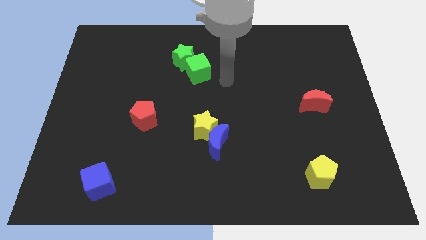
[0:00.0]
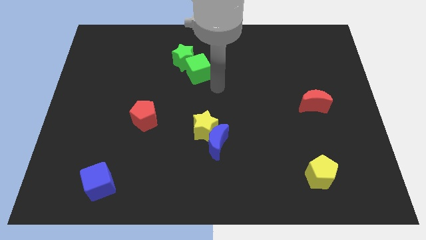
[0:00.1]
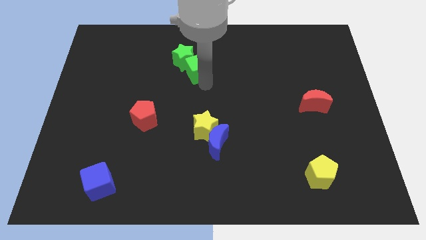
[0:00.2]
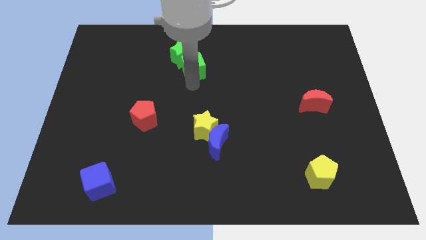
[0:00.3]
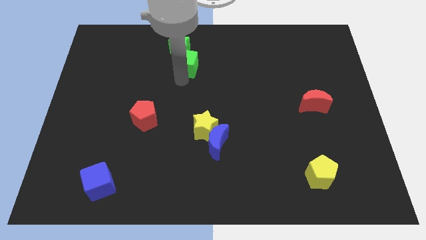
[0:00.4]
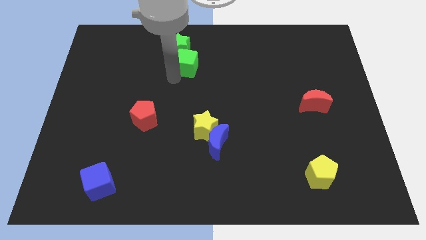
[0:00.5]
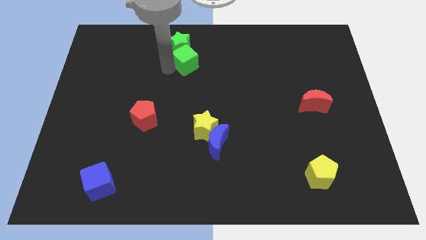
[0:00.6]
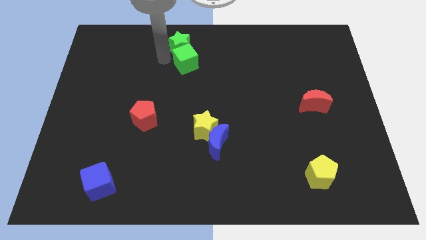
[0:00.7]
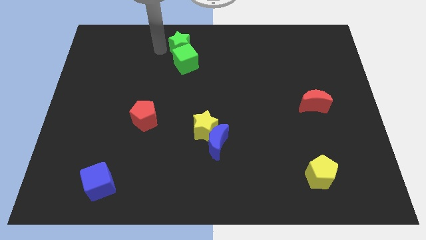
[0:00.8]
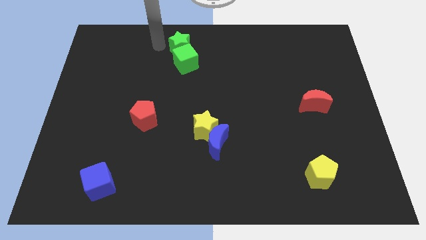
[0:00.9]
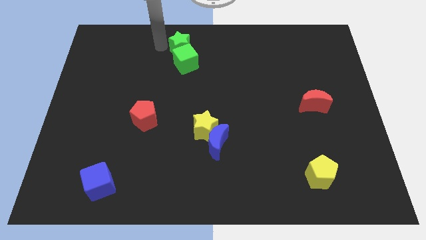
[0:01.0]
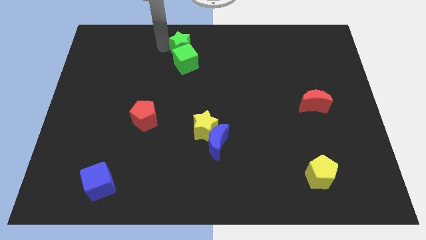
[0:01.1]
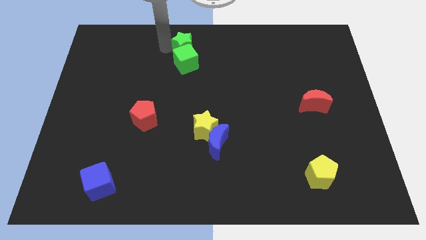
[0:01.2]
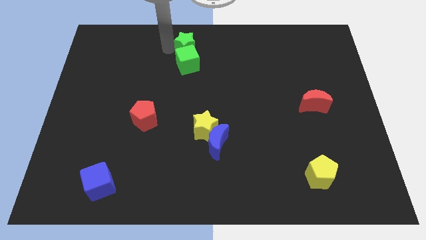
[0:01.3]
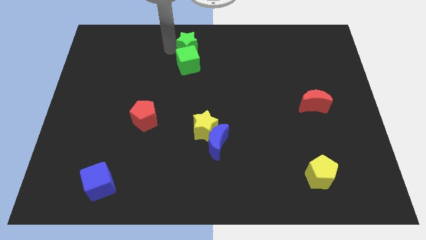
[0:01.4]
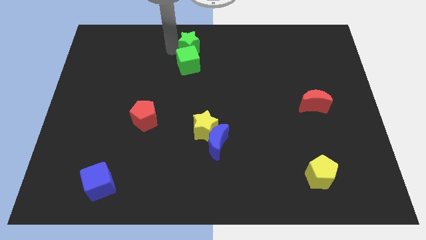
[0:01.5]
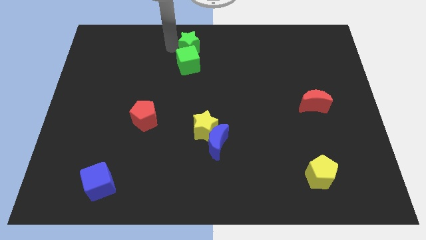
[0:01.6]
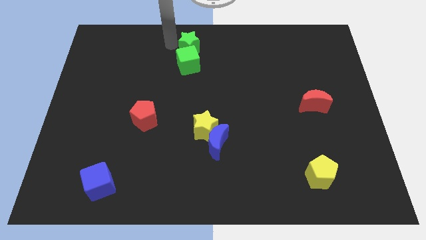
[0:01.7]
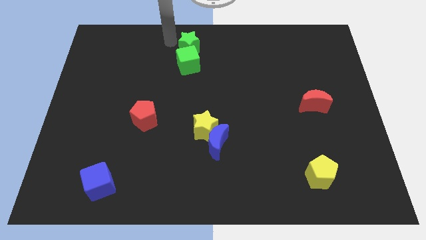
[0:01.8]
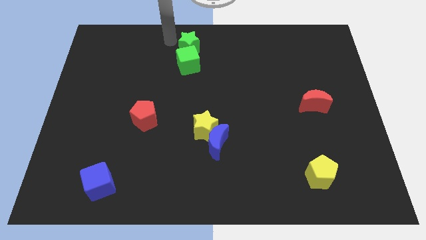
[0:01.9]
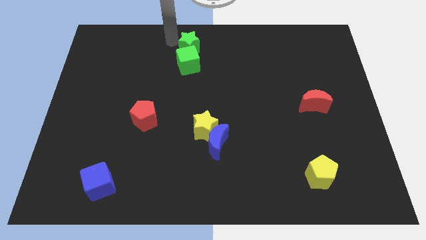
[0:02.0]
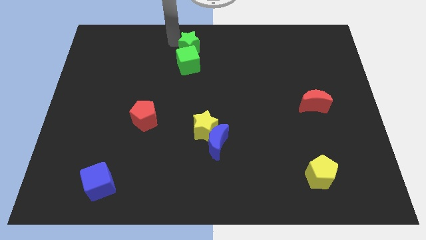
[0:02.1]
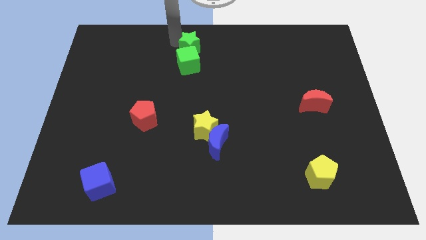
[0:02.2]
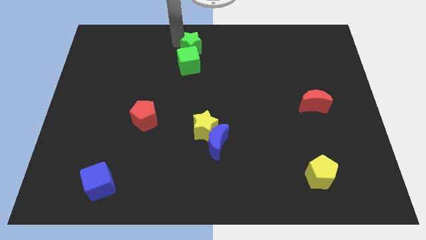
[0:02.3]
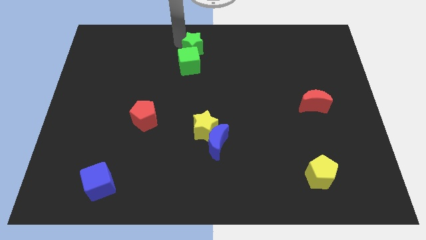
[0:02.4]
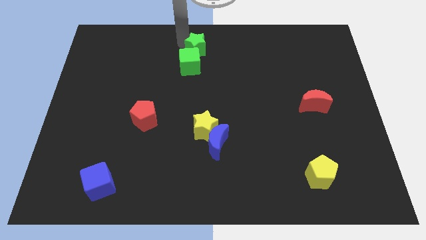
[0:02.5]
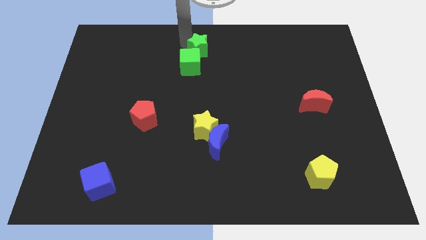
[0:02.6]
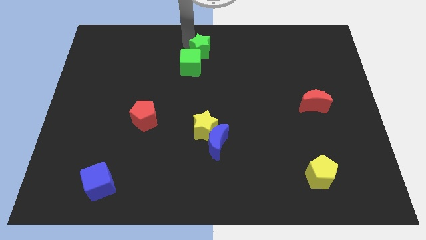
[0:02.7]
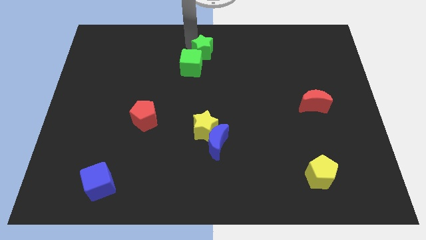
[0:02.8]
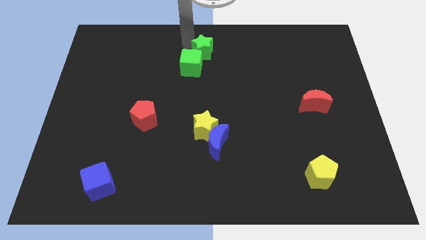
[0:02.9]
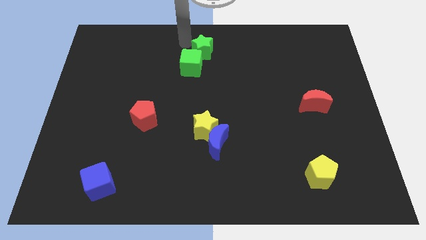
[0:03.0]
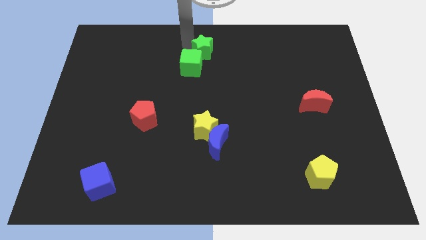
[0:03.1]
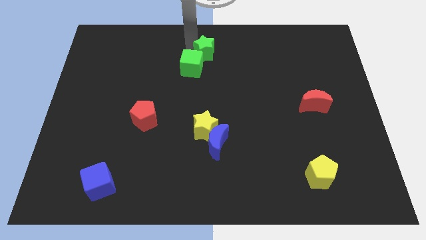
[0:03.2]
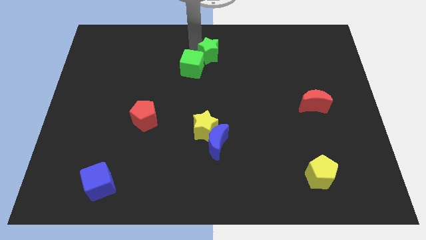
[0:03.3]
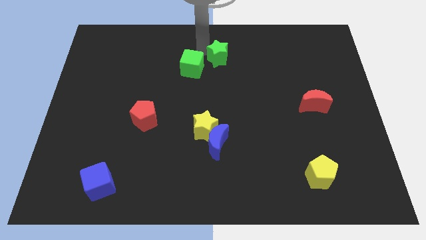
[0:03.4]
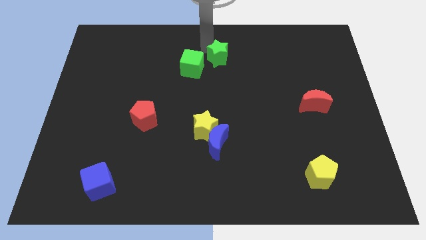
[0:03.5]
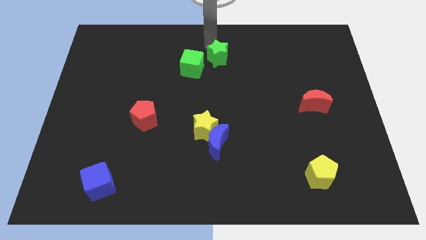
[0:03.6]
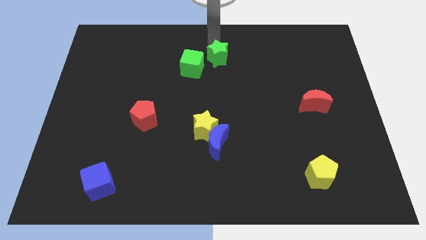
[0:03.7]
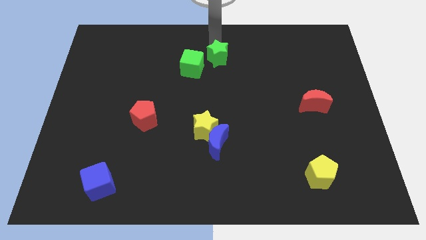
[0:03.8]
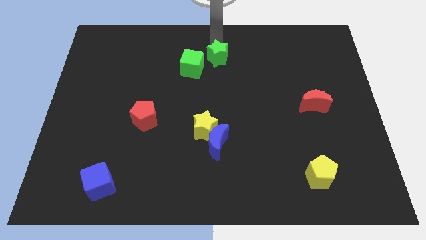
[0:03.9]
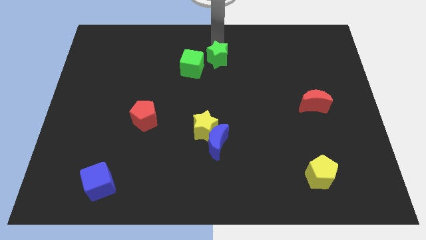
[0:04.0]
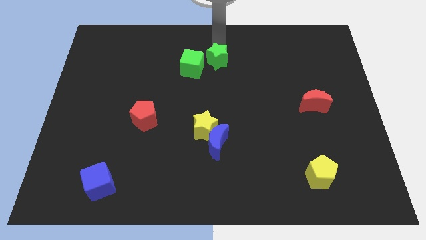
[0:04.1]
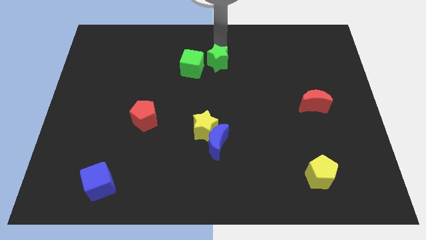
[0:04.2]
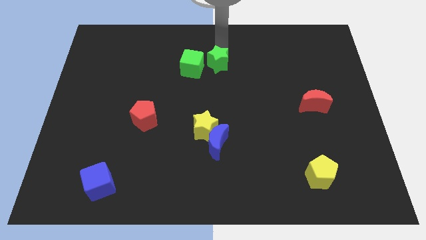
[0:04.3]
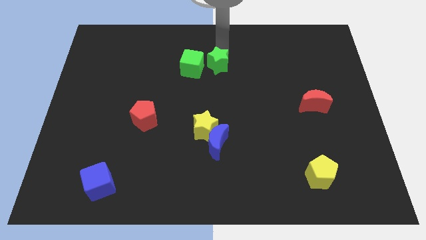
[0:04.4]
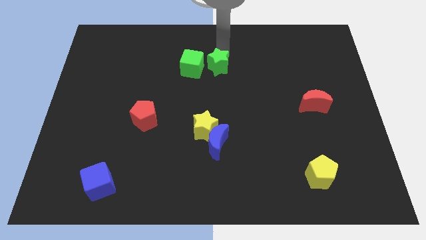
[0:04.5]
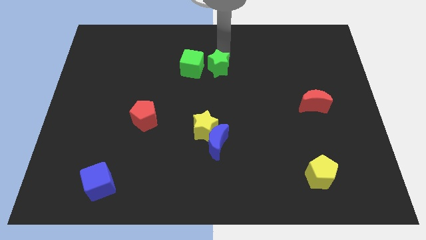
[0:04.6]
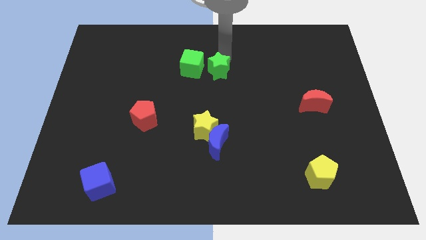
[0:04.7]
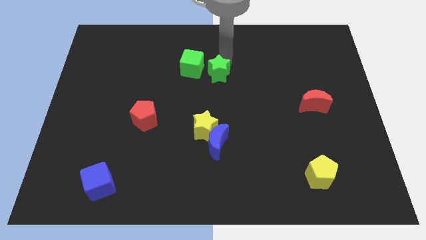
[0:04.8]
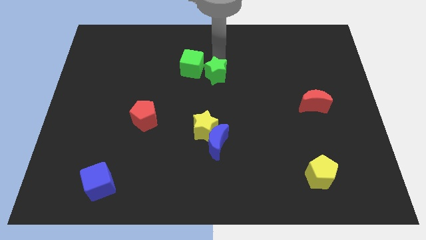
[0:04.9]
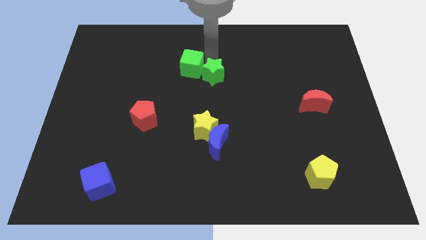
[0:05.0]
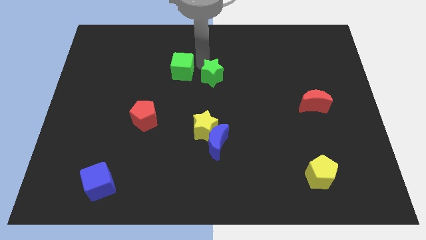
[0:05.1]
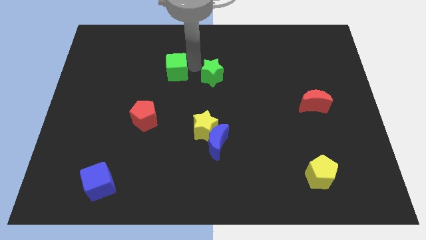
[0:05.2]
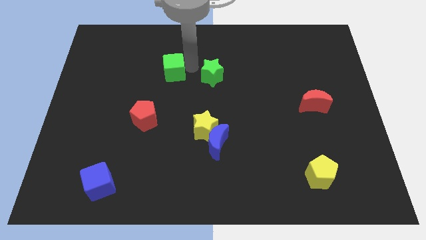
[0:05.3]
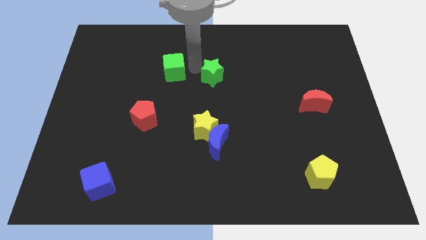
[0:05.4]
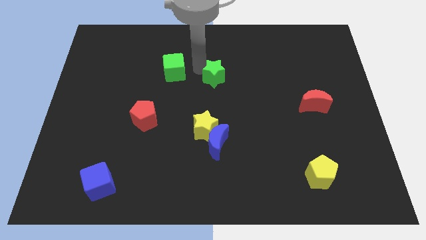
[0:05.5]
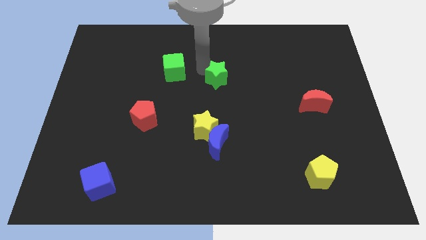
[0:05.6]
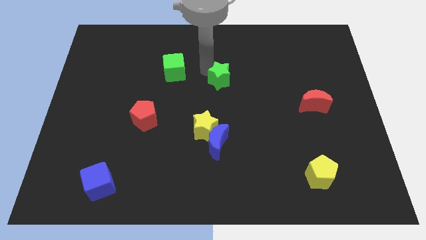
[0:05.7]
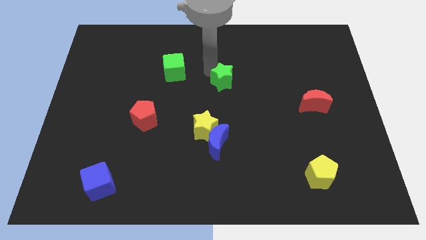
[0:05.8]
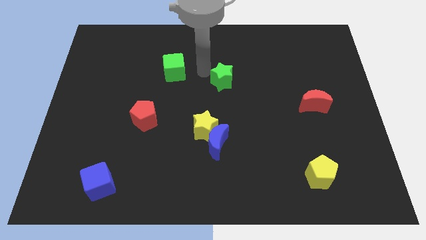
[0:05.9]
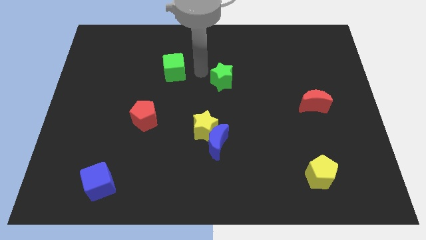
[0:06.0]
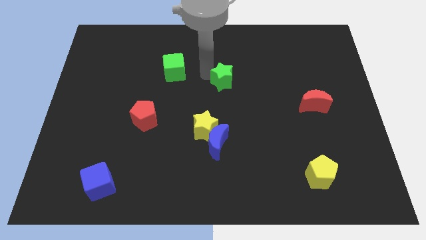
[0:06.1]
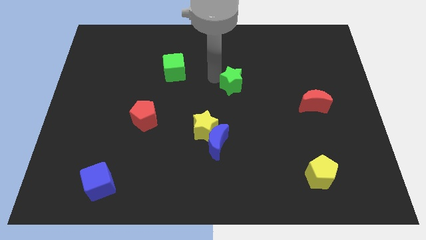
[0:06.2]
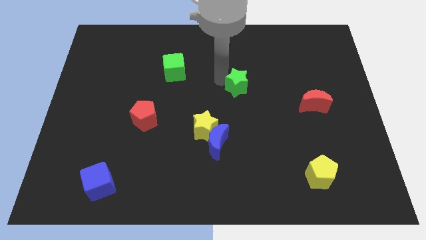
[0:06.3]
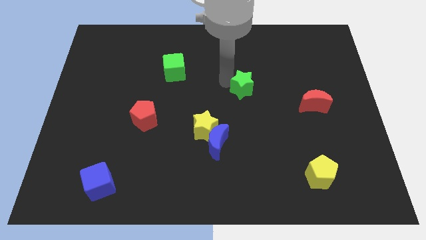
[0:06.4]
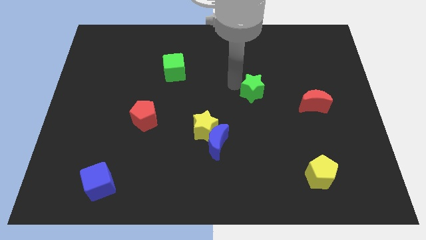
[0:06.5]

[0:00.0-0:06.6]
move the green star just left of the red moon

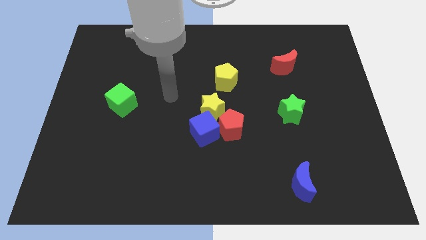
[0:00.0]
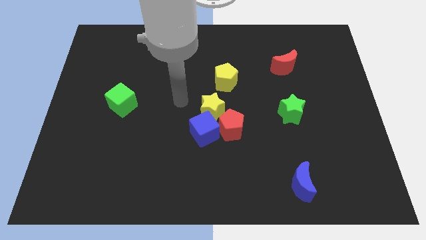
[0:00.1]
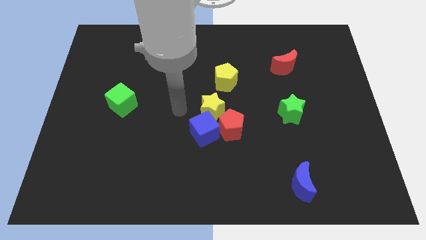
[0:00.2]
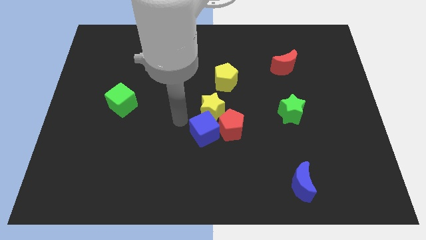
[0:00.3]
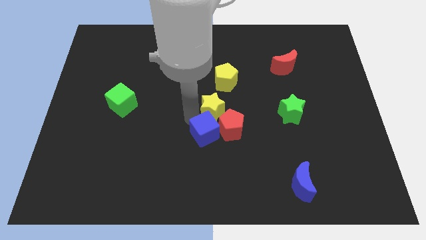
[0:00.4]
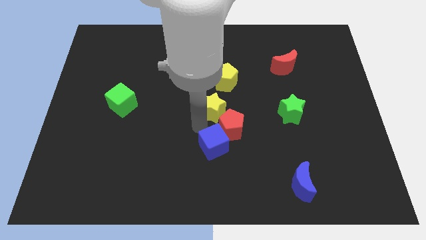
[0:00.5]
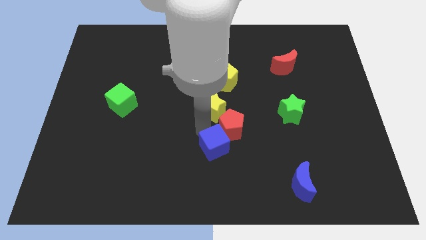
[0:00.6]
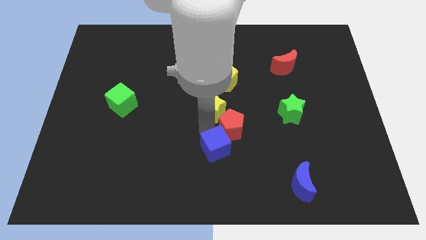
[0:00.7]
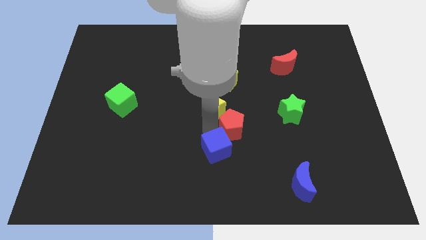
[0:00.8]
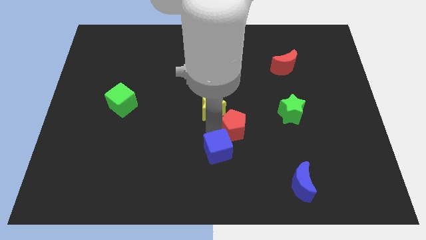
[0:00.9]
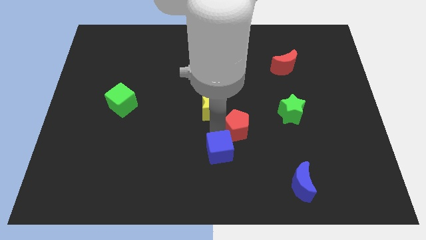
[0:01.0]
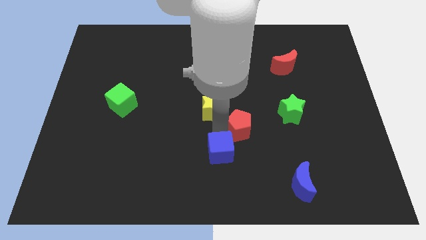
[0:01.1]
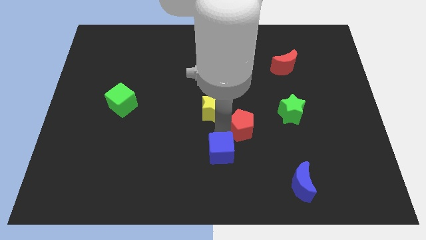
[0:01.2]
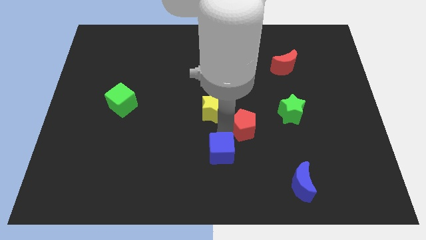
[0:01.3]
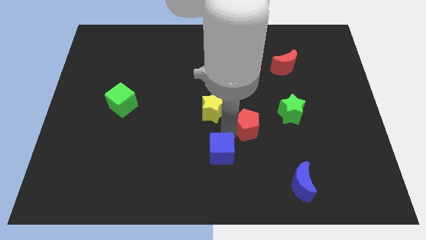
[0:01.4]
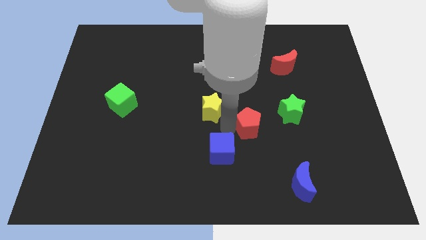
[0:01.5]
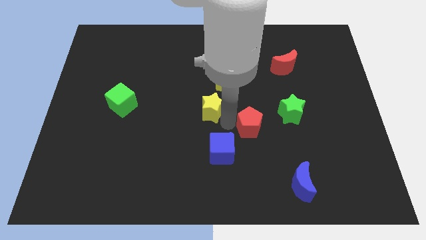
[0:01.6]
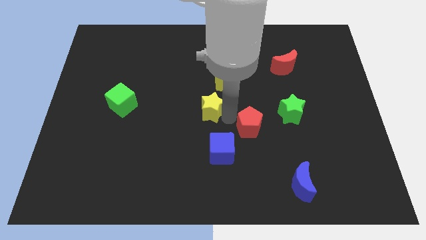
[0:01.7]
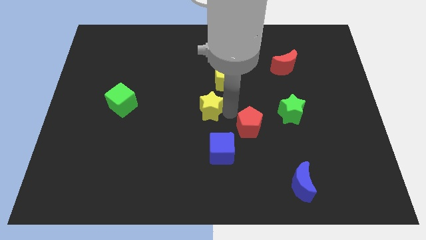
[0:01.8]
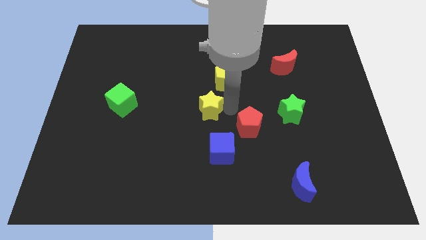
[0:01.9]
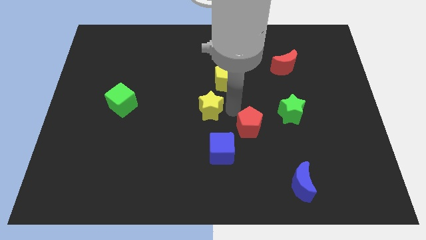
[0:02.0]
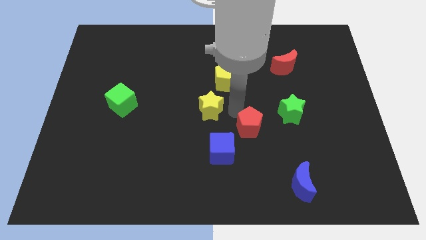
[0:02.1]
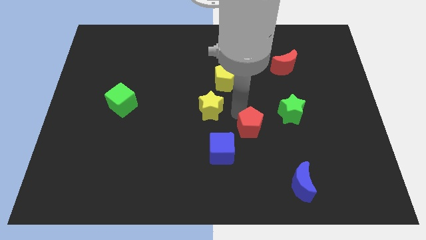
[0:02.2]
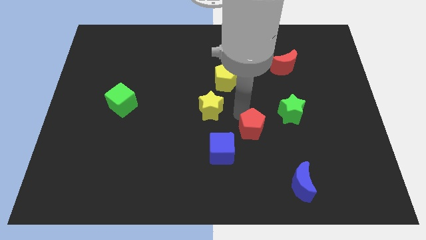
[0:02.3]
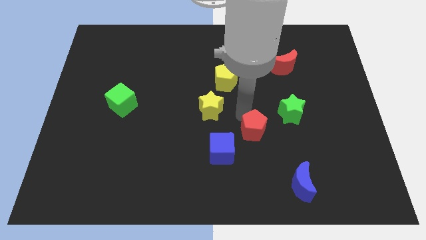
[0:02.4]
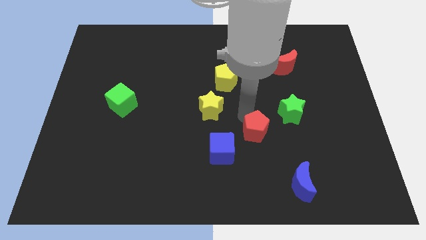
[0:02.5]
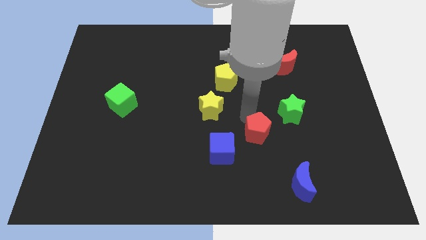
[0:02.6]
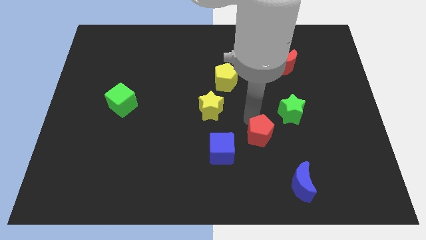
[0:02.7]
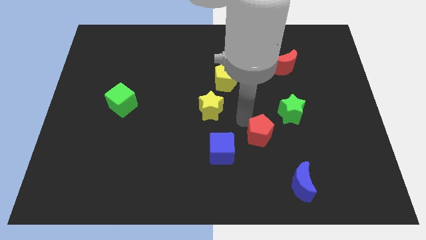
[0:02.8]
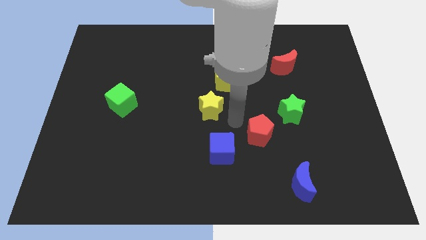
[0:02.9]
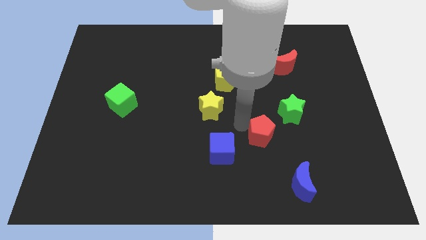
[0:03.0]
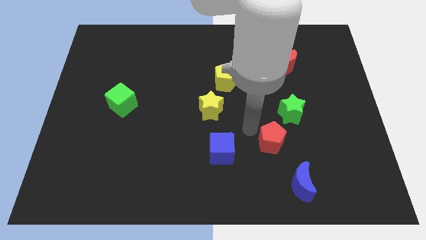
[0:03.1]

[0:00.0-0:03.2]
push the red pentagon below the green star
